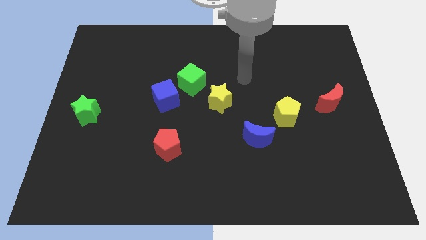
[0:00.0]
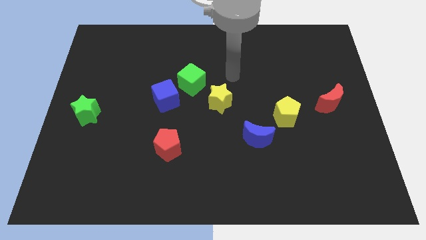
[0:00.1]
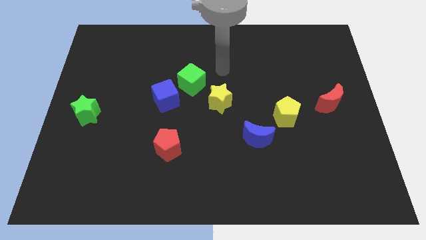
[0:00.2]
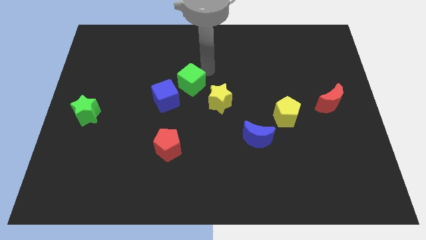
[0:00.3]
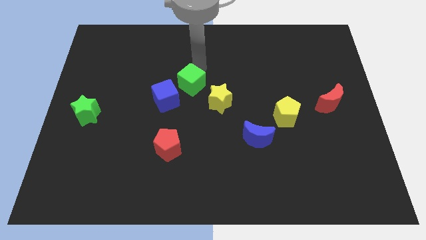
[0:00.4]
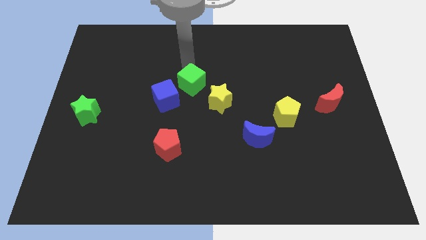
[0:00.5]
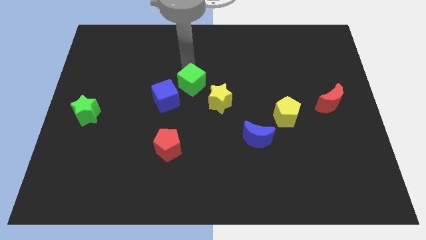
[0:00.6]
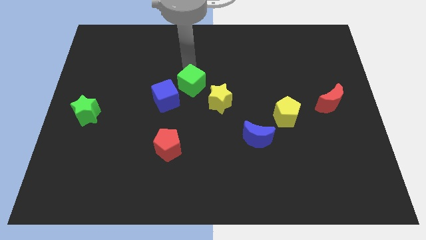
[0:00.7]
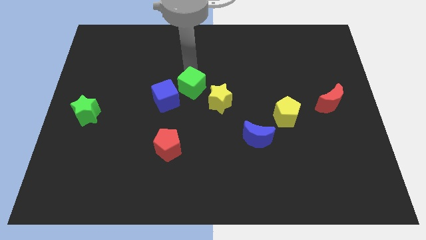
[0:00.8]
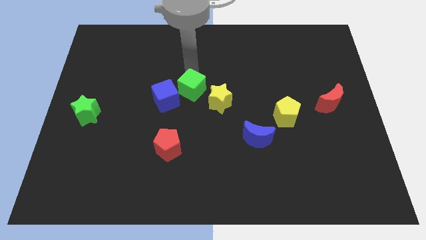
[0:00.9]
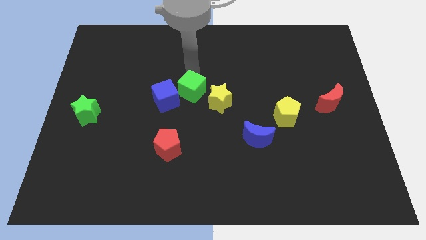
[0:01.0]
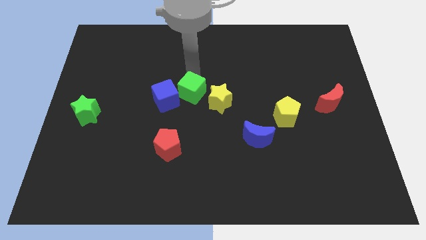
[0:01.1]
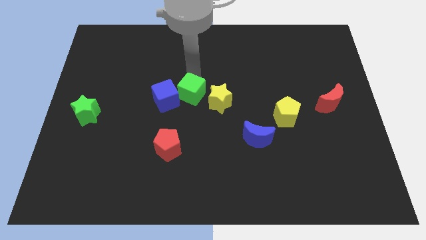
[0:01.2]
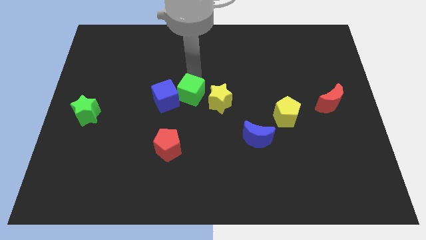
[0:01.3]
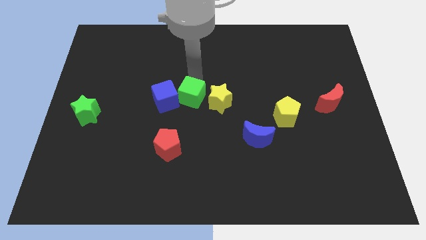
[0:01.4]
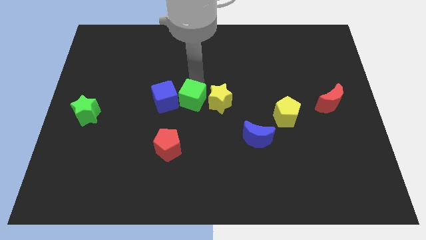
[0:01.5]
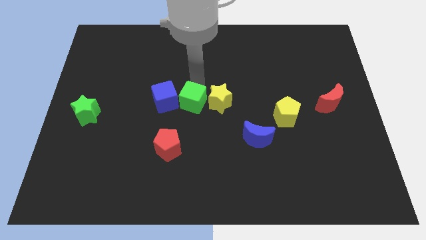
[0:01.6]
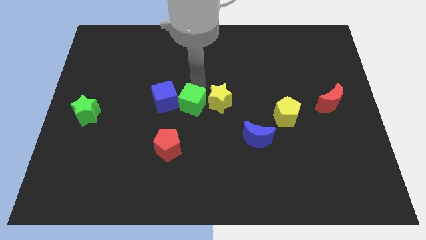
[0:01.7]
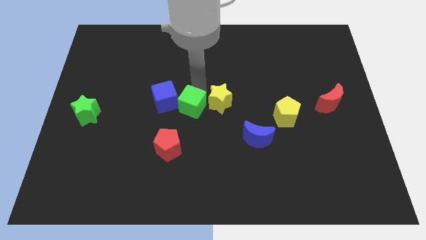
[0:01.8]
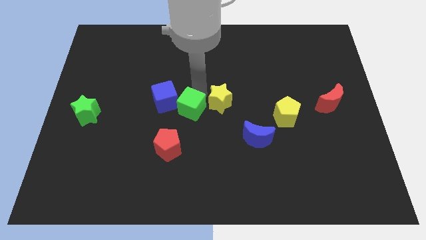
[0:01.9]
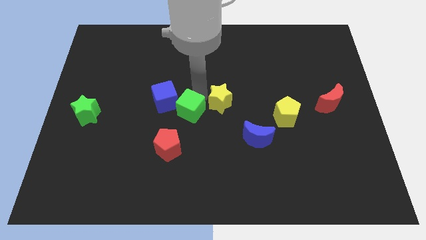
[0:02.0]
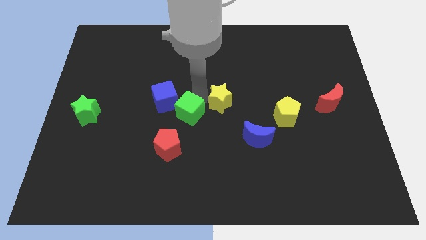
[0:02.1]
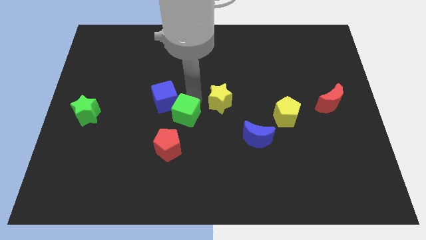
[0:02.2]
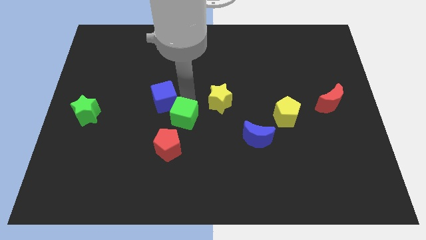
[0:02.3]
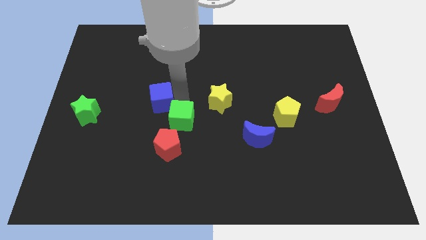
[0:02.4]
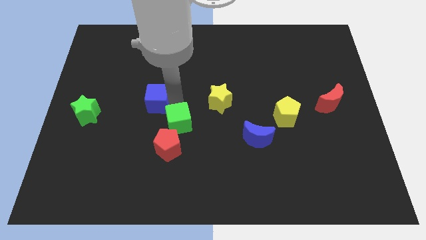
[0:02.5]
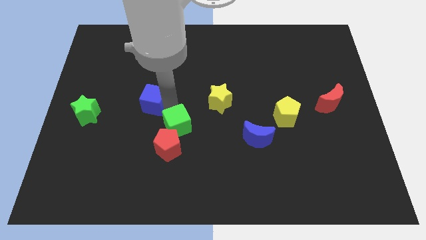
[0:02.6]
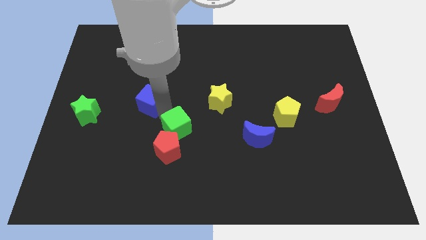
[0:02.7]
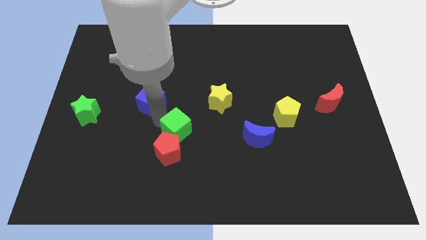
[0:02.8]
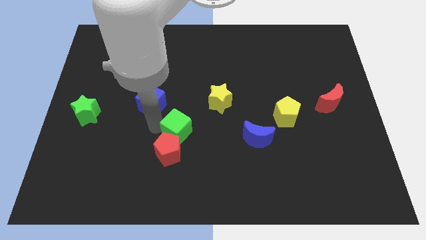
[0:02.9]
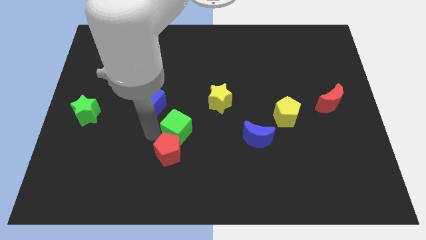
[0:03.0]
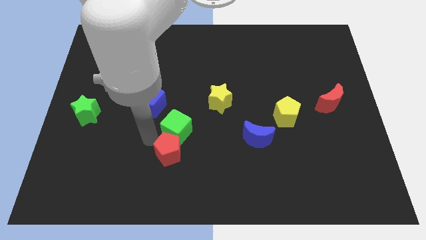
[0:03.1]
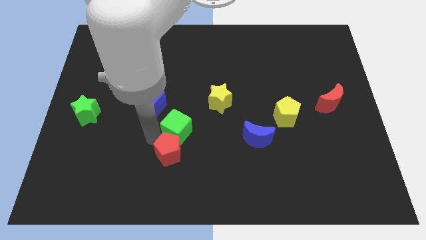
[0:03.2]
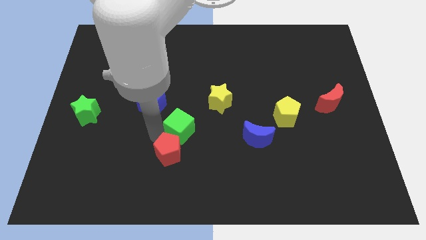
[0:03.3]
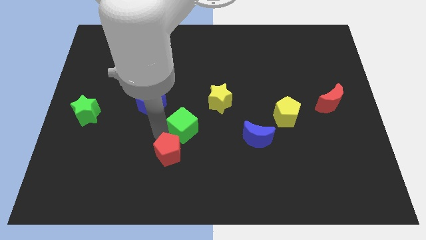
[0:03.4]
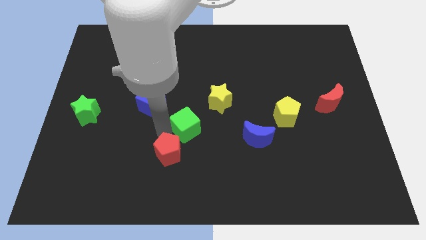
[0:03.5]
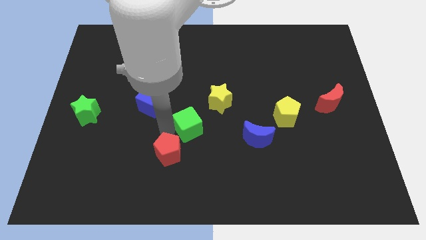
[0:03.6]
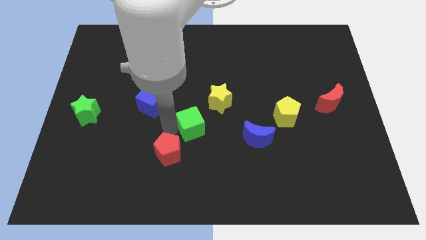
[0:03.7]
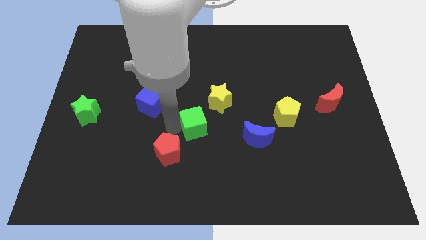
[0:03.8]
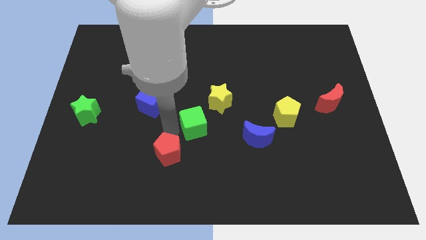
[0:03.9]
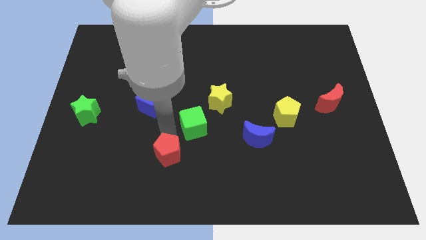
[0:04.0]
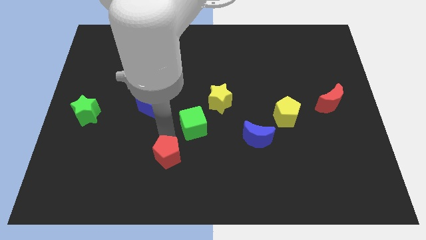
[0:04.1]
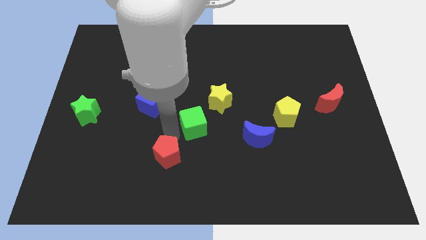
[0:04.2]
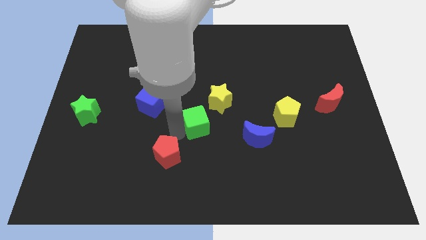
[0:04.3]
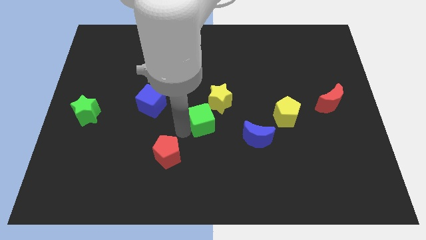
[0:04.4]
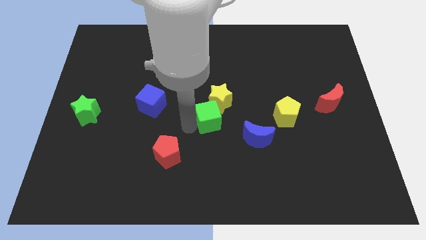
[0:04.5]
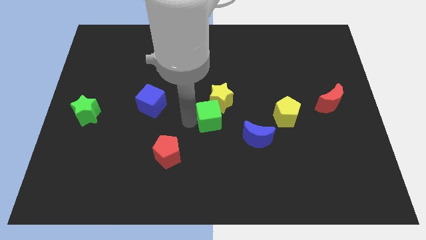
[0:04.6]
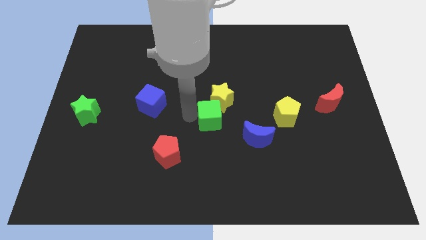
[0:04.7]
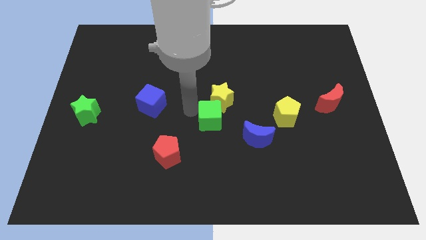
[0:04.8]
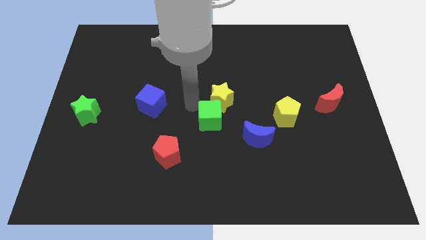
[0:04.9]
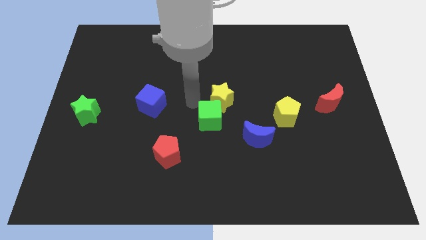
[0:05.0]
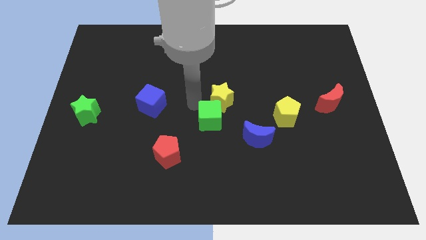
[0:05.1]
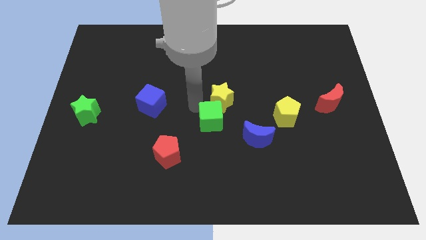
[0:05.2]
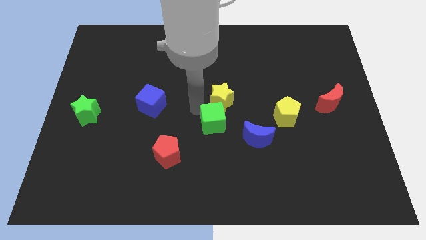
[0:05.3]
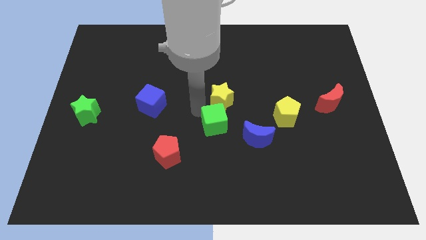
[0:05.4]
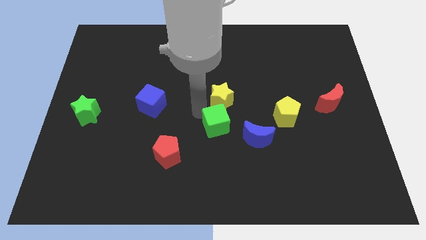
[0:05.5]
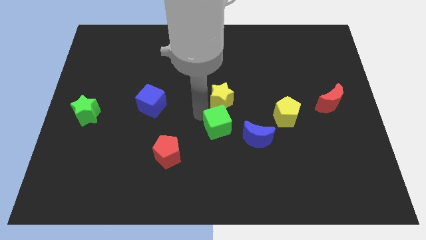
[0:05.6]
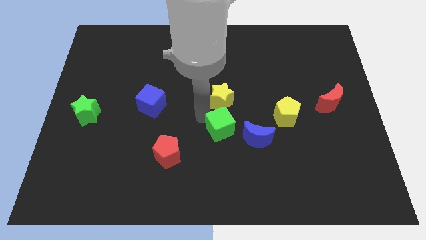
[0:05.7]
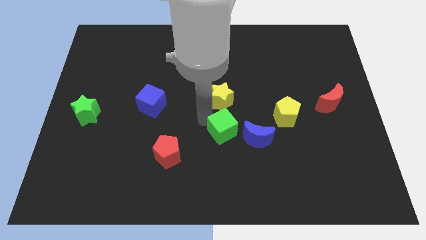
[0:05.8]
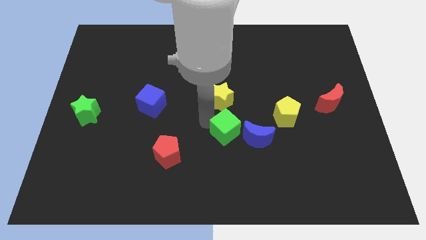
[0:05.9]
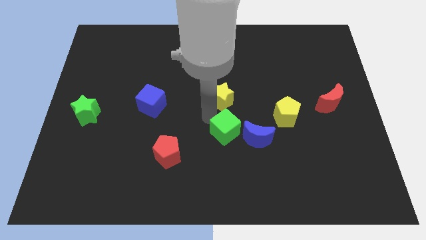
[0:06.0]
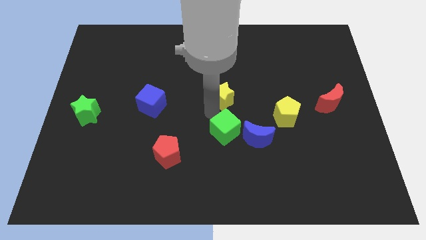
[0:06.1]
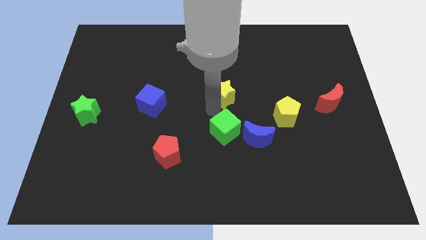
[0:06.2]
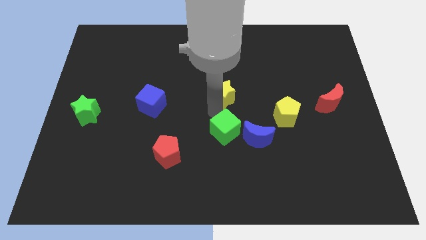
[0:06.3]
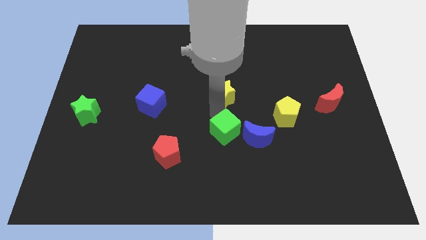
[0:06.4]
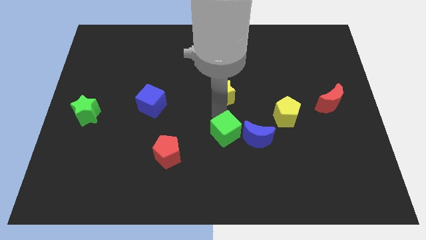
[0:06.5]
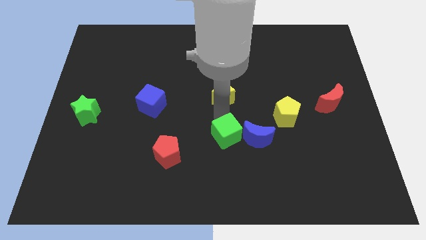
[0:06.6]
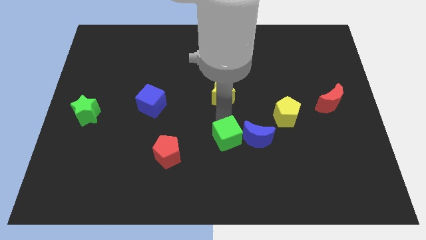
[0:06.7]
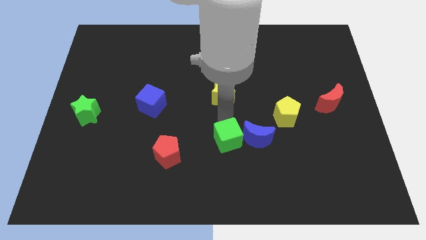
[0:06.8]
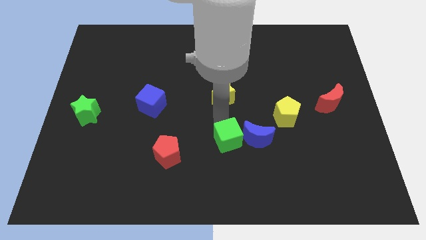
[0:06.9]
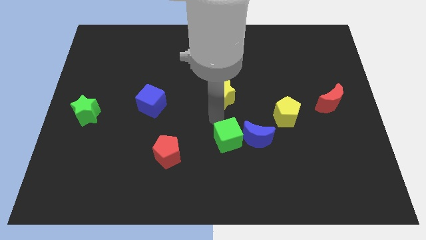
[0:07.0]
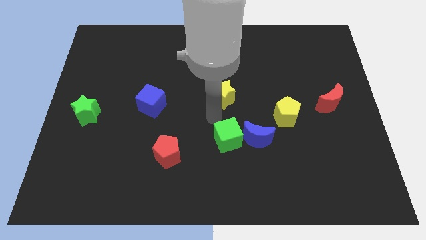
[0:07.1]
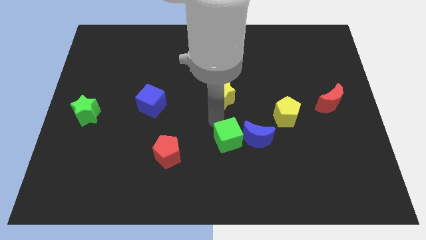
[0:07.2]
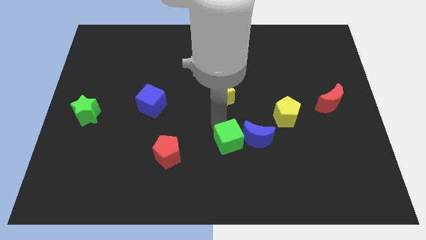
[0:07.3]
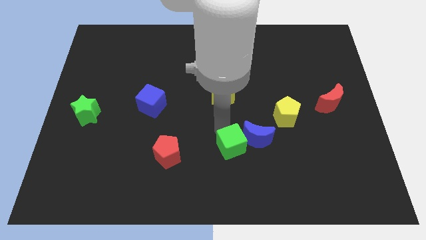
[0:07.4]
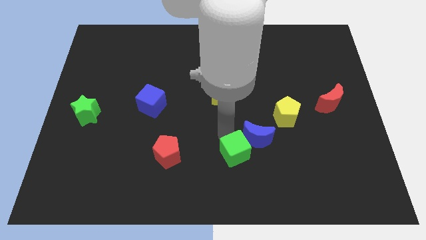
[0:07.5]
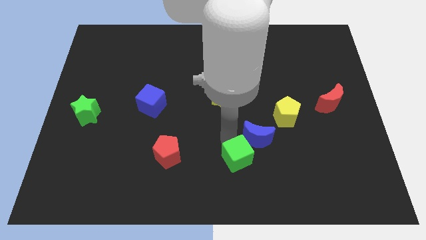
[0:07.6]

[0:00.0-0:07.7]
push the green cube to the bottom of the blue moon
